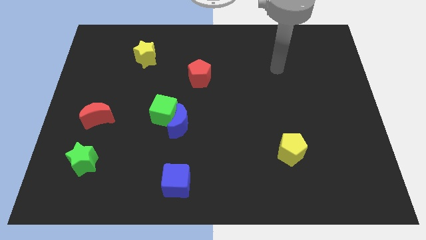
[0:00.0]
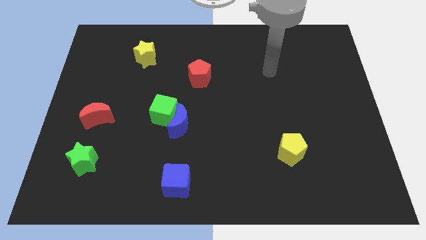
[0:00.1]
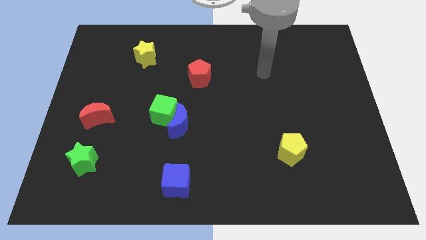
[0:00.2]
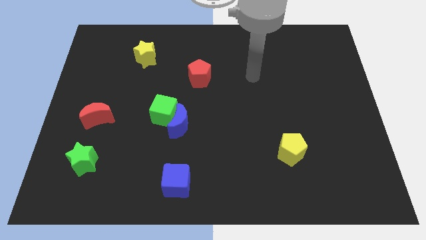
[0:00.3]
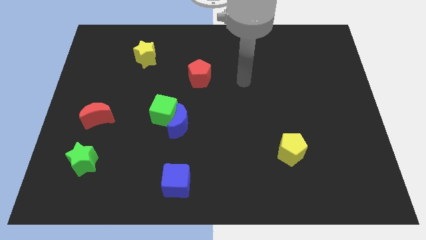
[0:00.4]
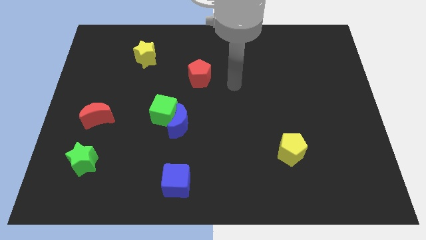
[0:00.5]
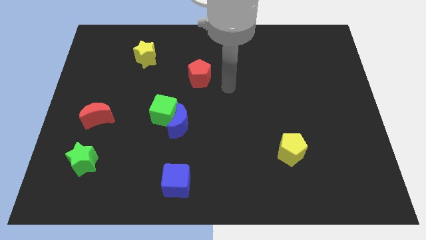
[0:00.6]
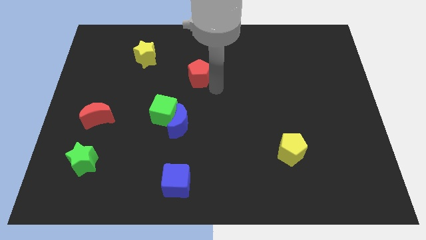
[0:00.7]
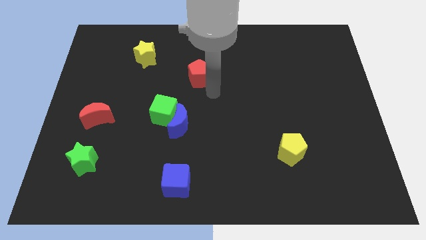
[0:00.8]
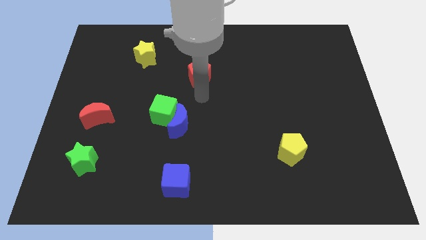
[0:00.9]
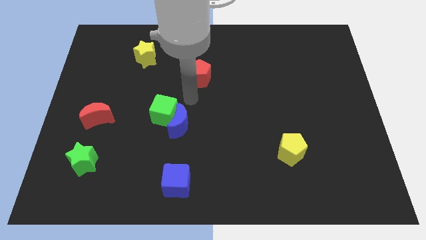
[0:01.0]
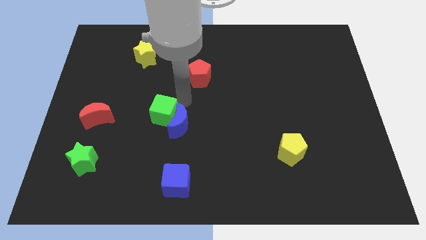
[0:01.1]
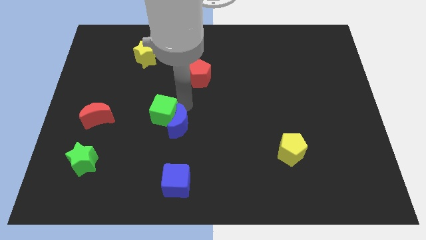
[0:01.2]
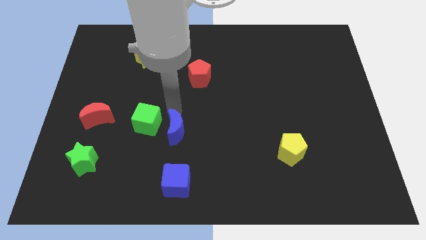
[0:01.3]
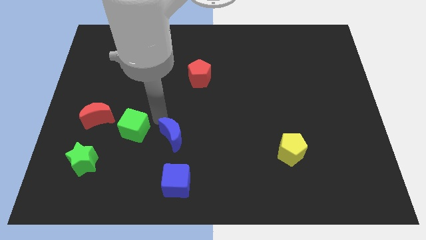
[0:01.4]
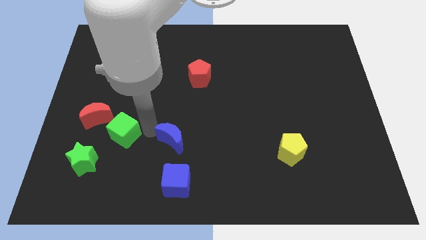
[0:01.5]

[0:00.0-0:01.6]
separate the blue moon from the green cube

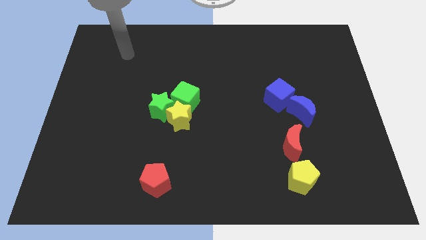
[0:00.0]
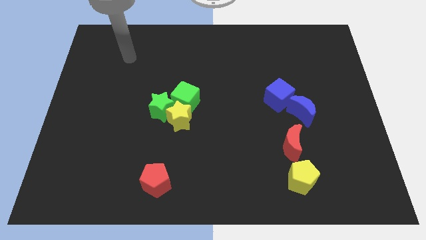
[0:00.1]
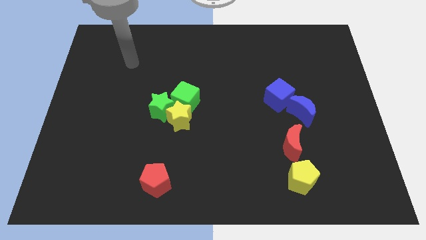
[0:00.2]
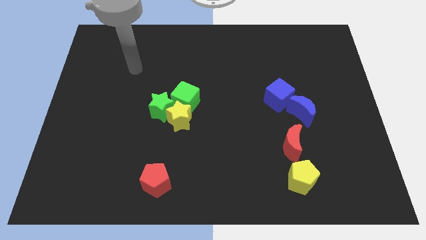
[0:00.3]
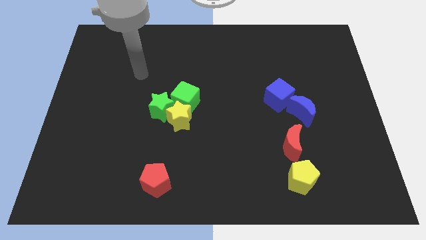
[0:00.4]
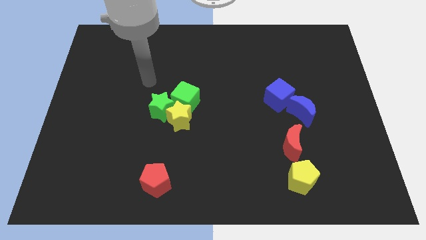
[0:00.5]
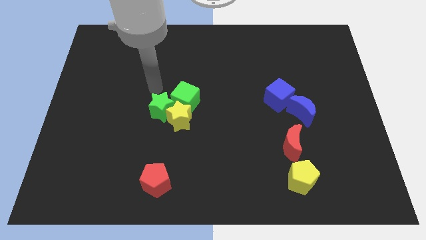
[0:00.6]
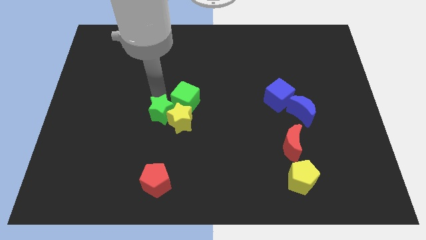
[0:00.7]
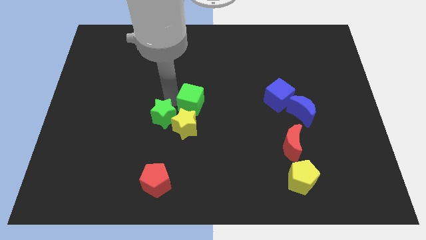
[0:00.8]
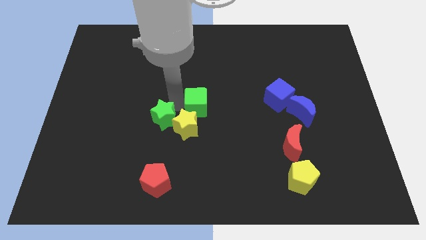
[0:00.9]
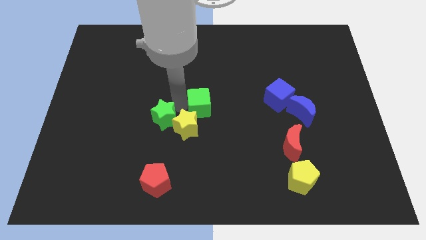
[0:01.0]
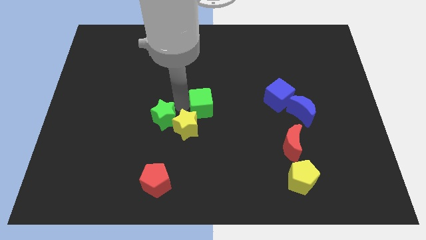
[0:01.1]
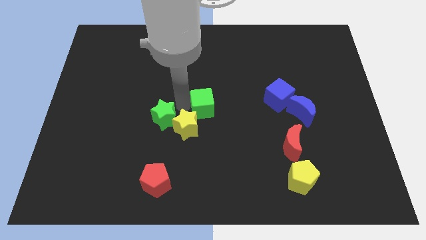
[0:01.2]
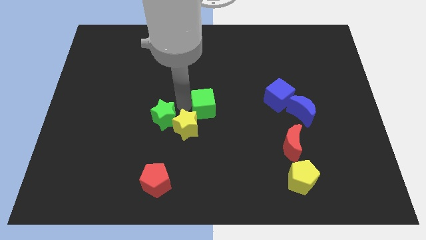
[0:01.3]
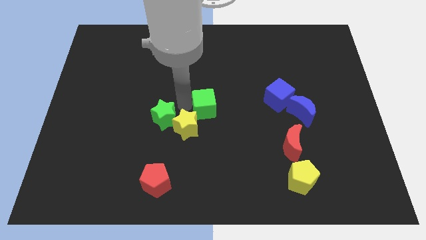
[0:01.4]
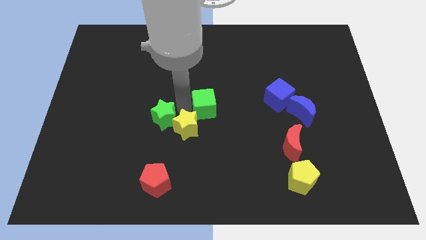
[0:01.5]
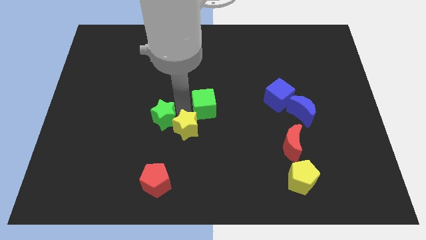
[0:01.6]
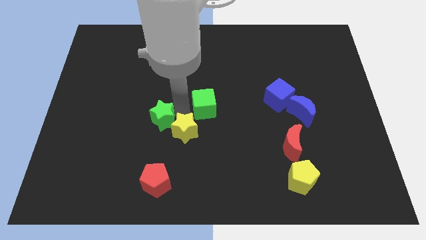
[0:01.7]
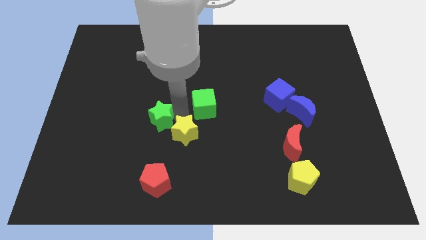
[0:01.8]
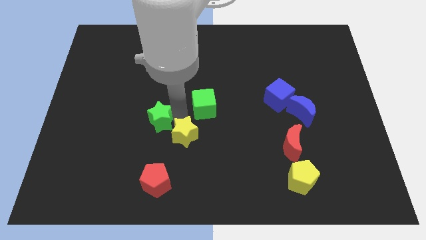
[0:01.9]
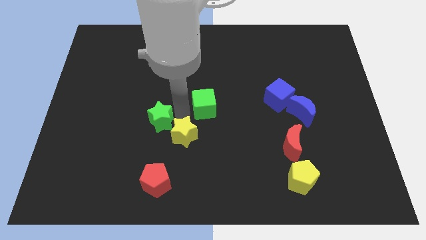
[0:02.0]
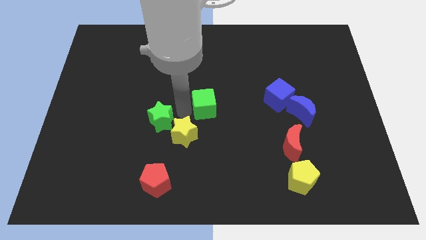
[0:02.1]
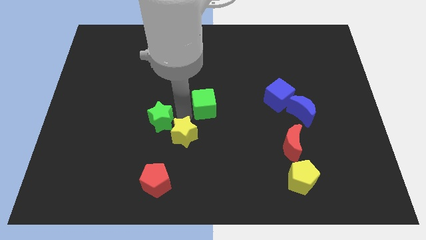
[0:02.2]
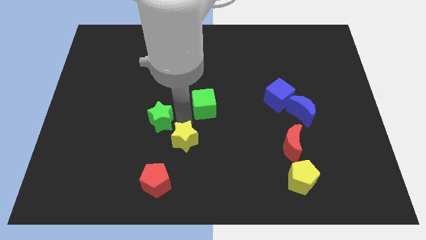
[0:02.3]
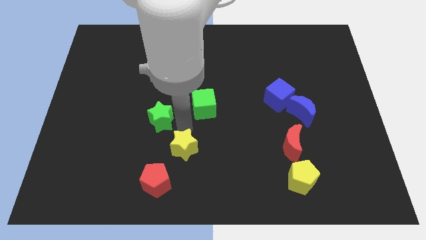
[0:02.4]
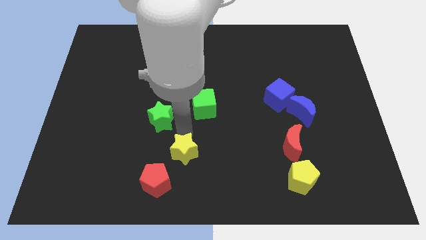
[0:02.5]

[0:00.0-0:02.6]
pull the yellow star apart from the green star and green cube

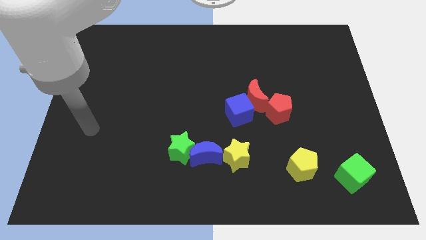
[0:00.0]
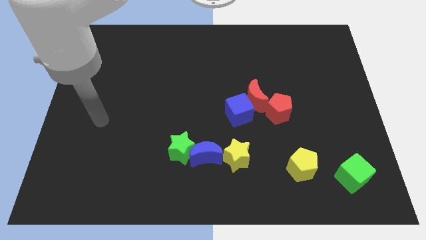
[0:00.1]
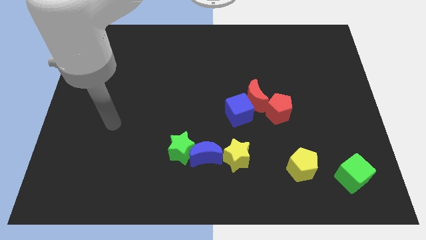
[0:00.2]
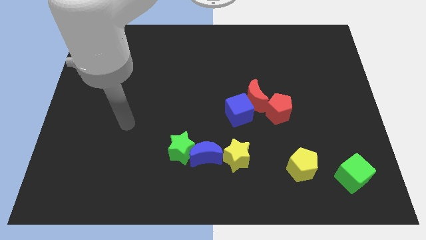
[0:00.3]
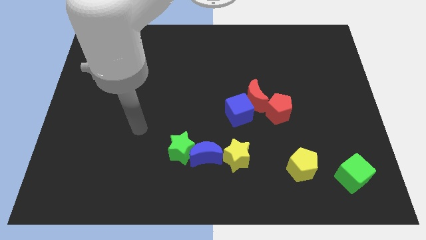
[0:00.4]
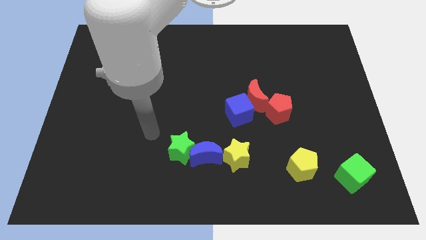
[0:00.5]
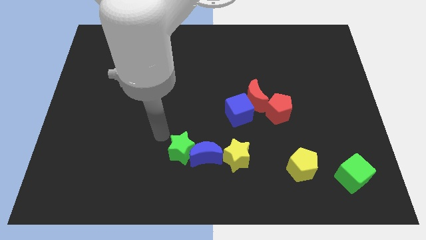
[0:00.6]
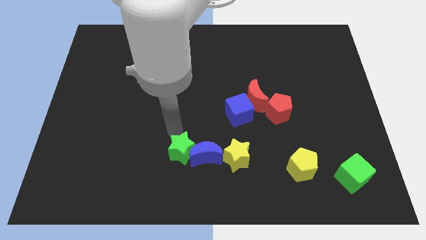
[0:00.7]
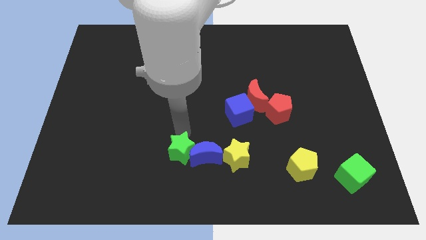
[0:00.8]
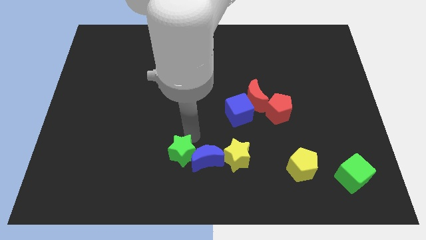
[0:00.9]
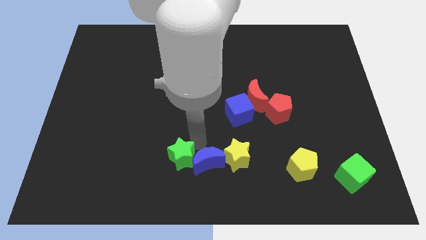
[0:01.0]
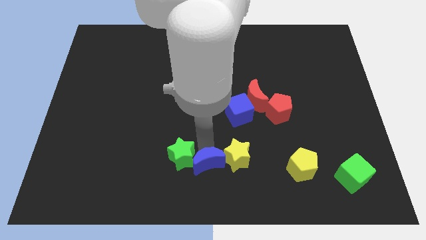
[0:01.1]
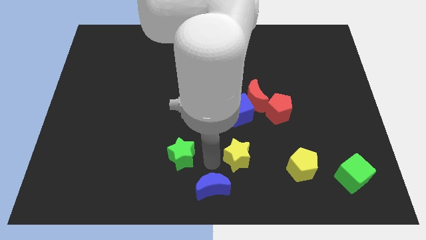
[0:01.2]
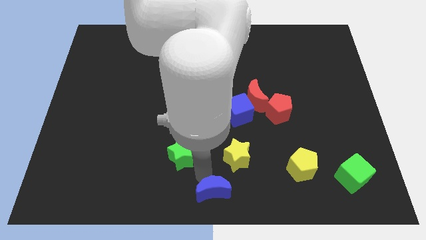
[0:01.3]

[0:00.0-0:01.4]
pull the green star apart from the blue moon

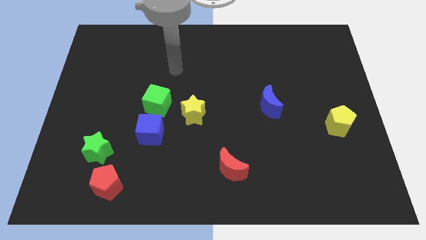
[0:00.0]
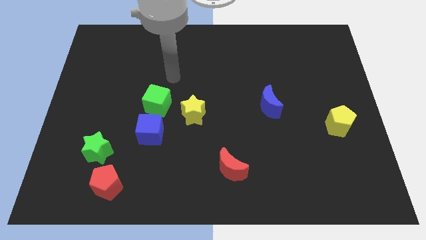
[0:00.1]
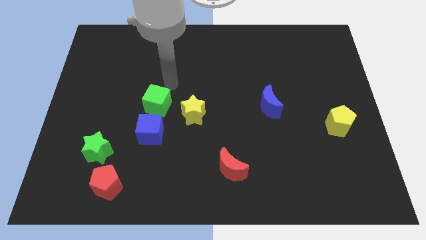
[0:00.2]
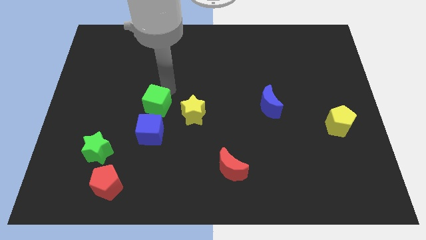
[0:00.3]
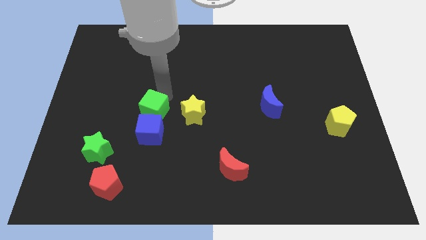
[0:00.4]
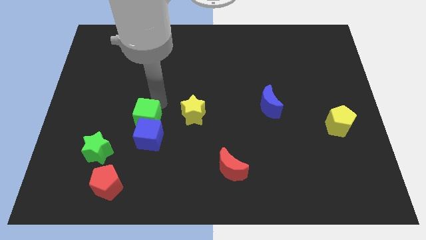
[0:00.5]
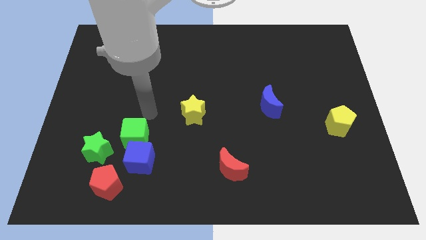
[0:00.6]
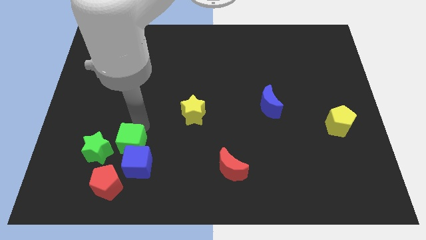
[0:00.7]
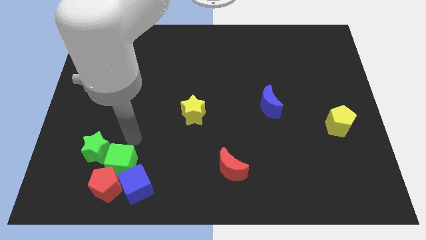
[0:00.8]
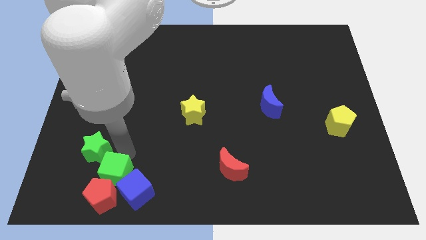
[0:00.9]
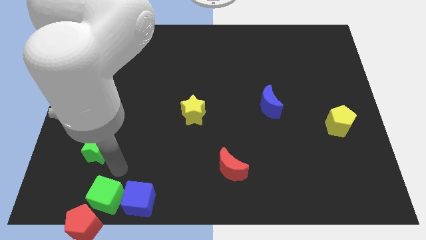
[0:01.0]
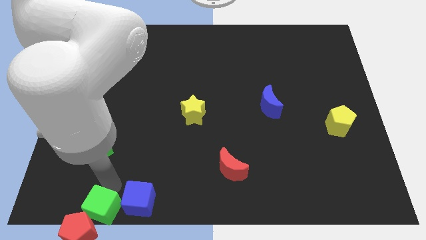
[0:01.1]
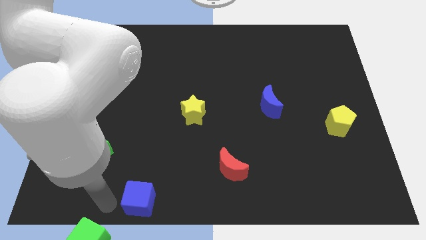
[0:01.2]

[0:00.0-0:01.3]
separate the blue cube from the green cube

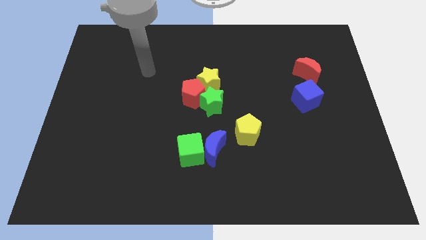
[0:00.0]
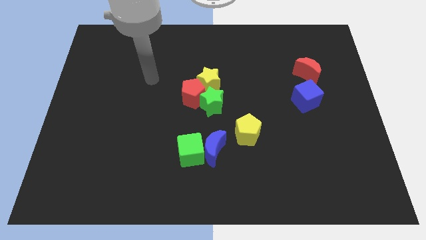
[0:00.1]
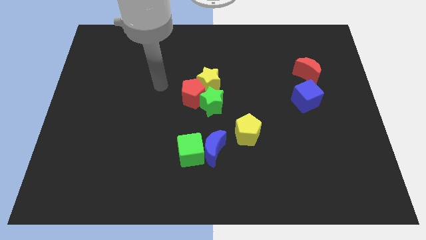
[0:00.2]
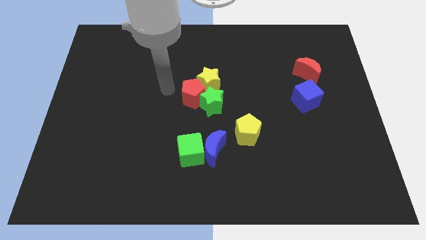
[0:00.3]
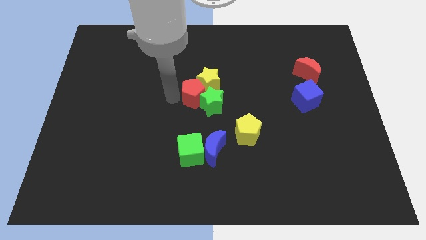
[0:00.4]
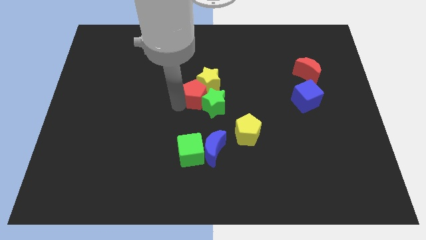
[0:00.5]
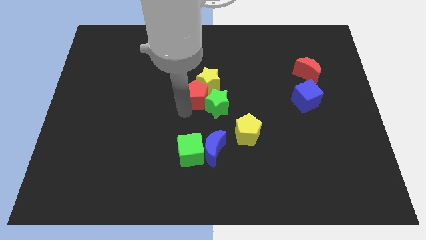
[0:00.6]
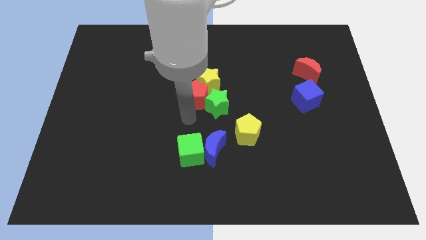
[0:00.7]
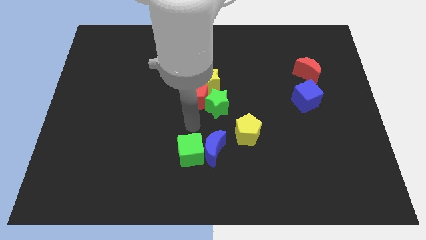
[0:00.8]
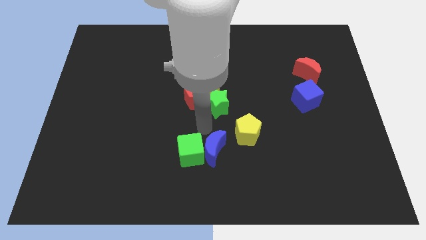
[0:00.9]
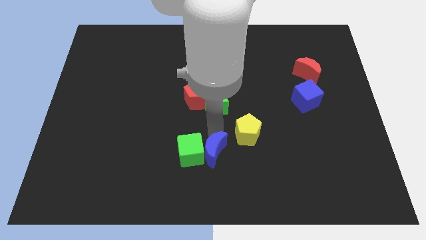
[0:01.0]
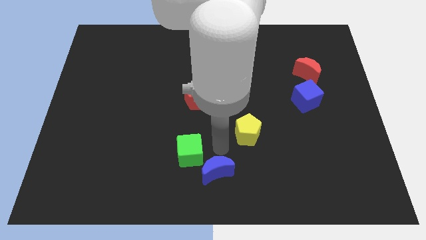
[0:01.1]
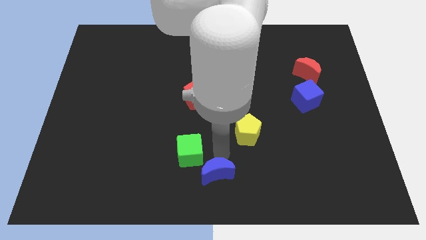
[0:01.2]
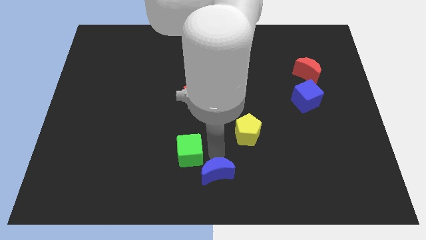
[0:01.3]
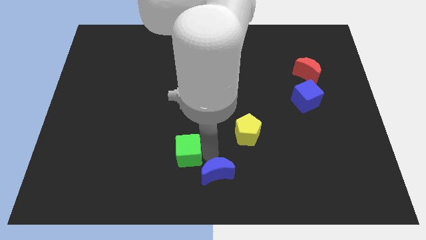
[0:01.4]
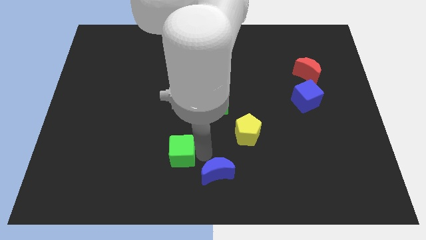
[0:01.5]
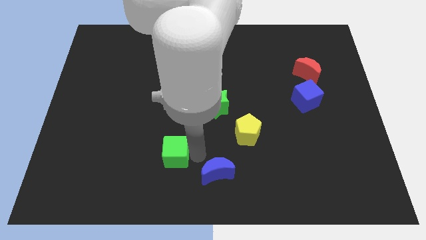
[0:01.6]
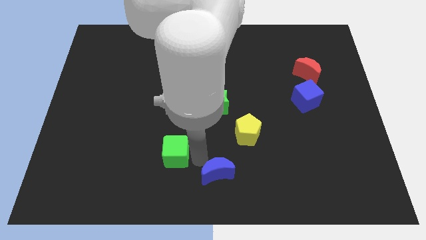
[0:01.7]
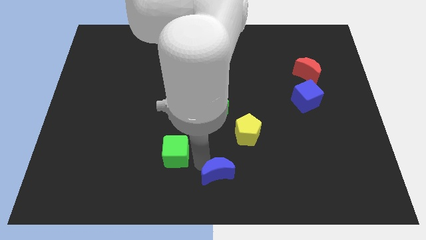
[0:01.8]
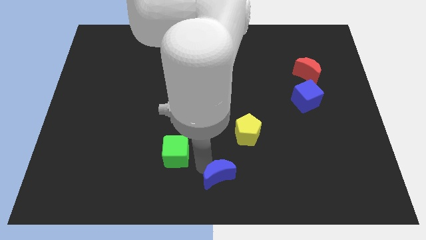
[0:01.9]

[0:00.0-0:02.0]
move the green cube away from the blue moon

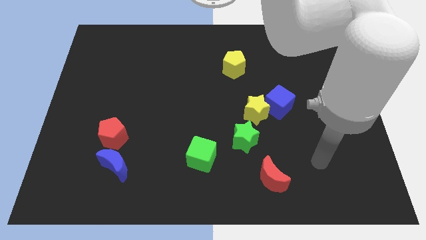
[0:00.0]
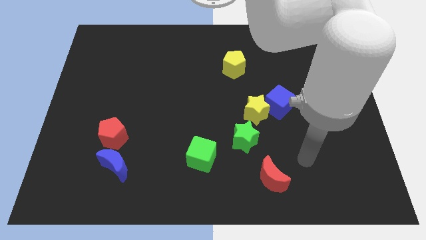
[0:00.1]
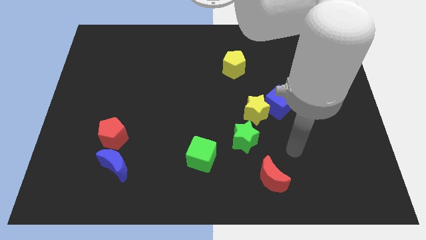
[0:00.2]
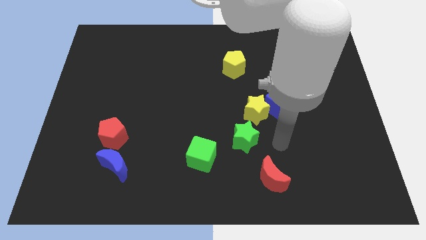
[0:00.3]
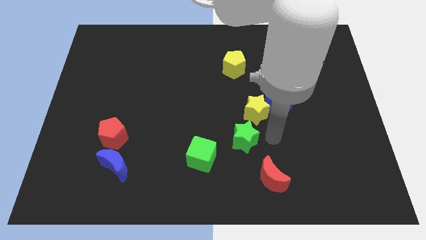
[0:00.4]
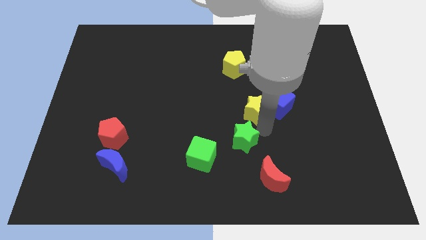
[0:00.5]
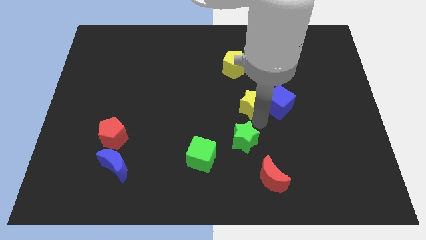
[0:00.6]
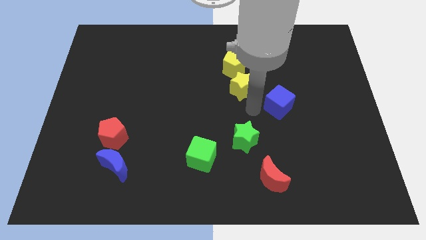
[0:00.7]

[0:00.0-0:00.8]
move the blue cube away from the yellow star
